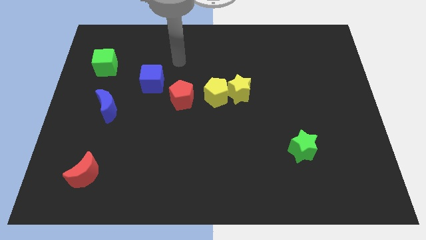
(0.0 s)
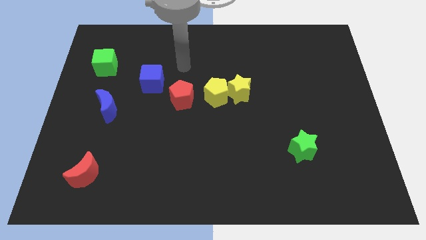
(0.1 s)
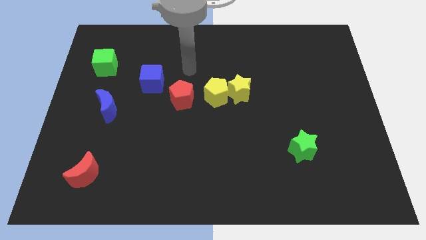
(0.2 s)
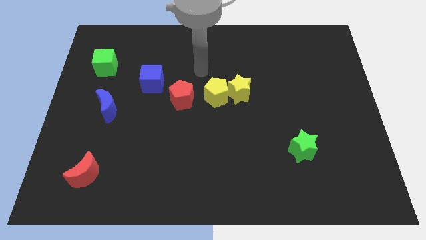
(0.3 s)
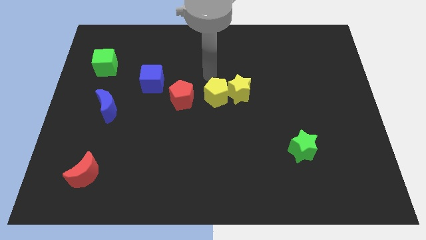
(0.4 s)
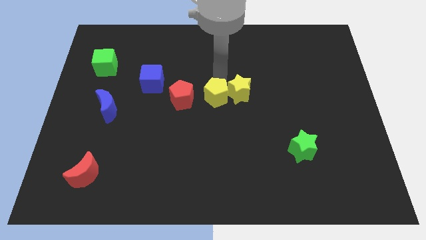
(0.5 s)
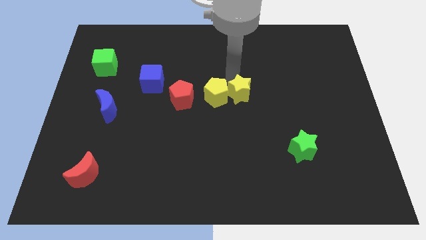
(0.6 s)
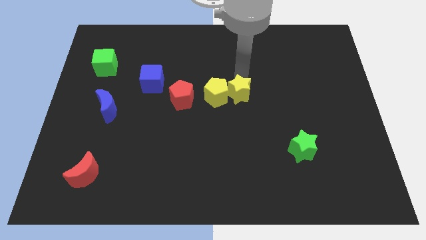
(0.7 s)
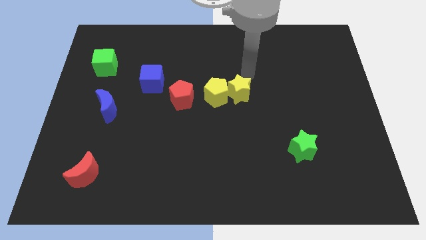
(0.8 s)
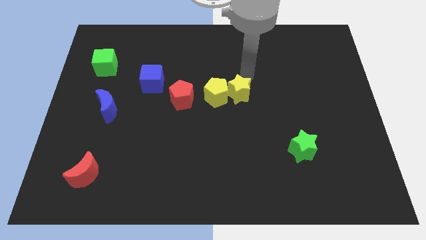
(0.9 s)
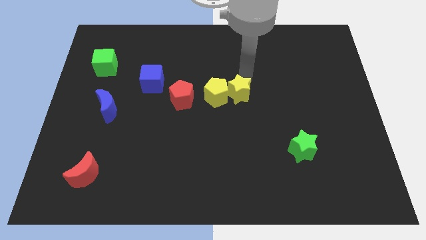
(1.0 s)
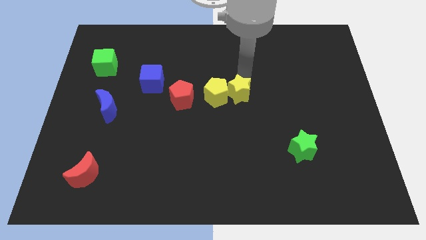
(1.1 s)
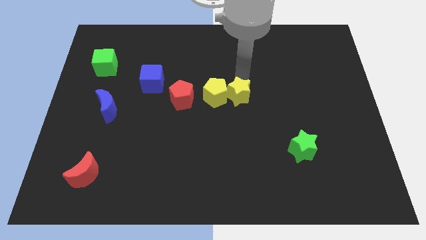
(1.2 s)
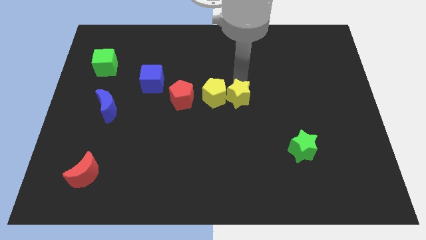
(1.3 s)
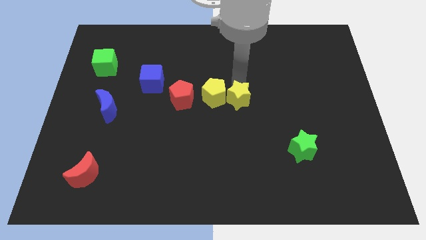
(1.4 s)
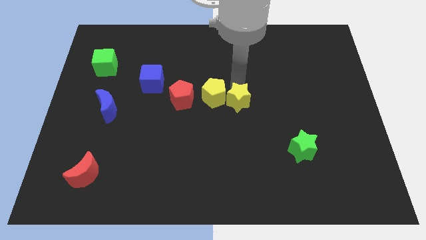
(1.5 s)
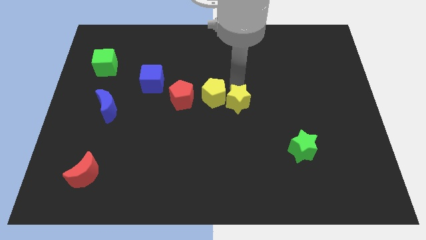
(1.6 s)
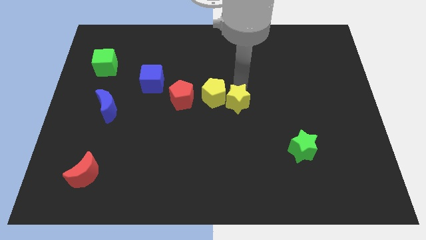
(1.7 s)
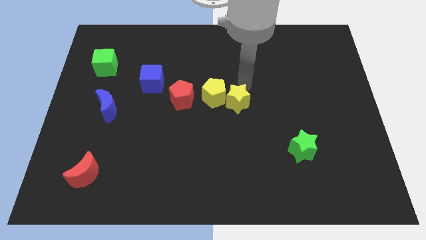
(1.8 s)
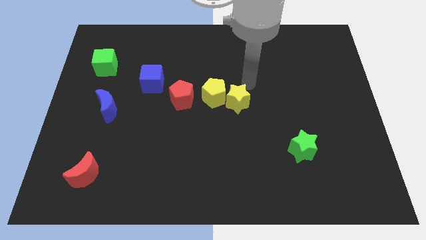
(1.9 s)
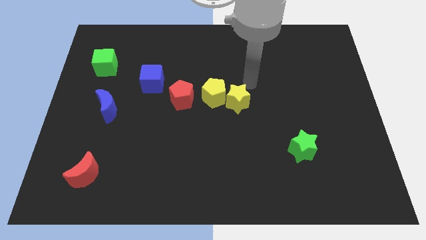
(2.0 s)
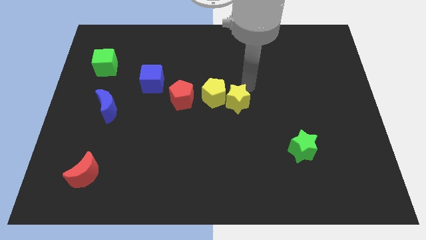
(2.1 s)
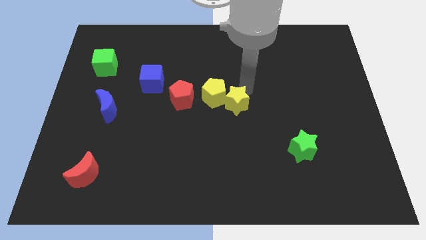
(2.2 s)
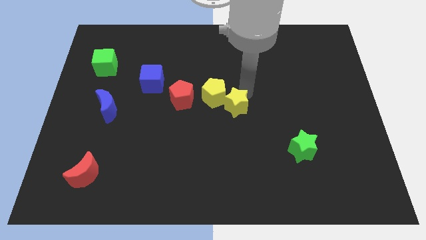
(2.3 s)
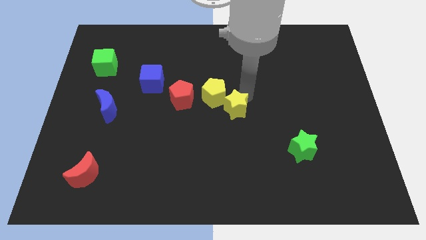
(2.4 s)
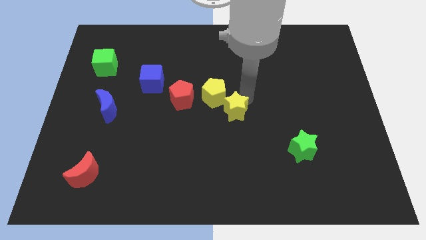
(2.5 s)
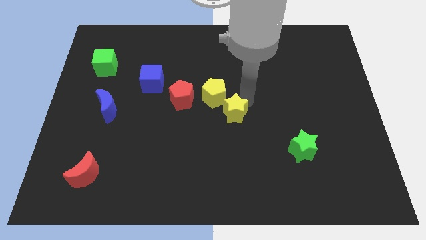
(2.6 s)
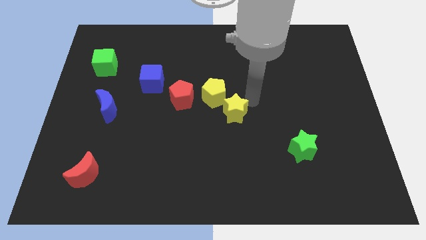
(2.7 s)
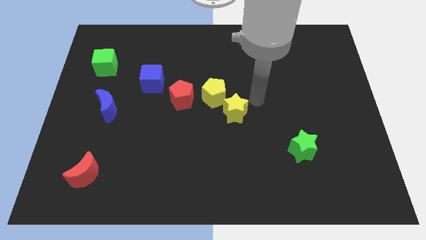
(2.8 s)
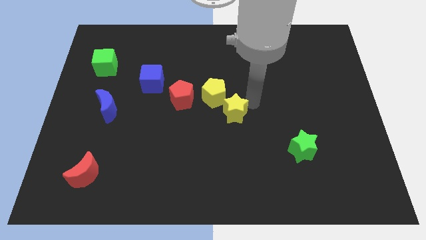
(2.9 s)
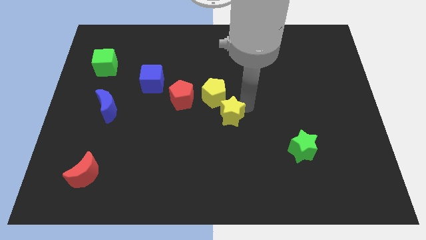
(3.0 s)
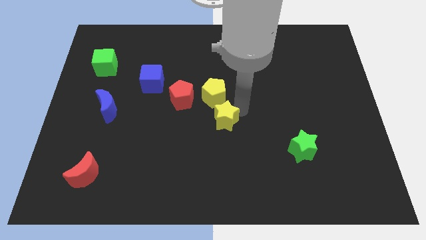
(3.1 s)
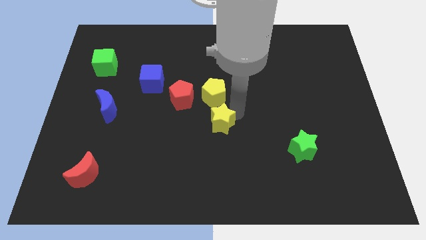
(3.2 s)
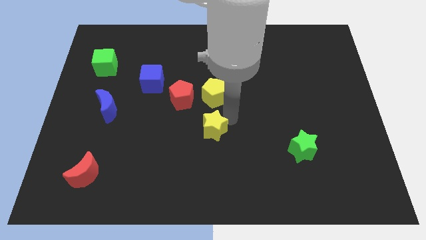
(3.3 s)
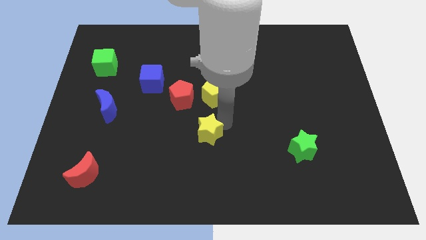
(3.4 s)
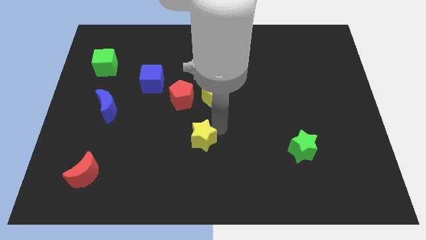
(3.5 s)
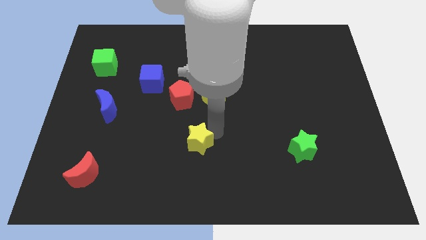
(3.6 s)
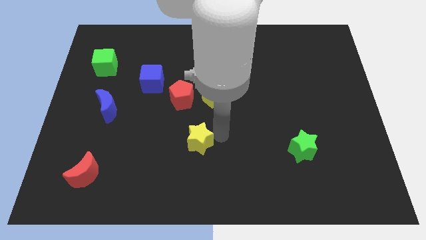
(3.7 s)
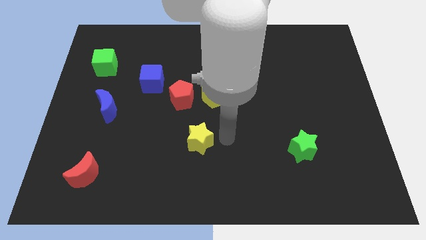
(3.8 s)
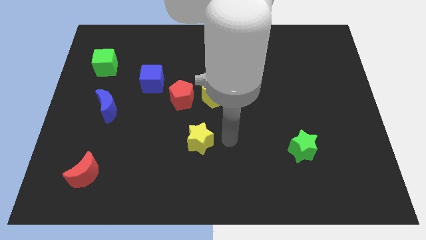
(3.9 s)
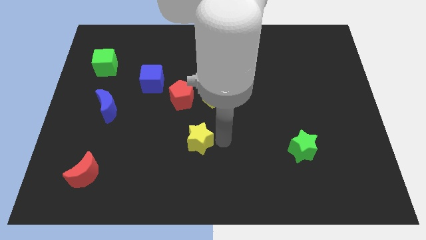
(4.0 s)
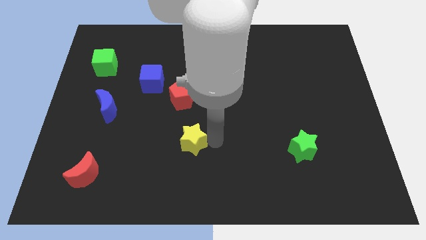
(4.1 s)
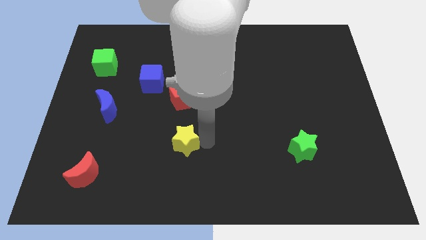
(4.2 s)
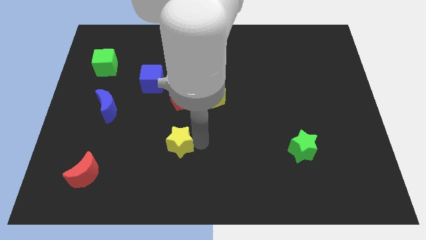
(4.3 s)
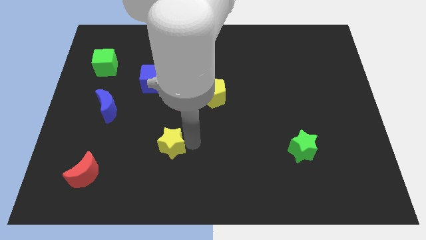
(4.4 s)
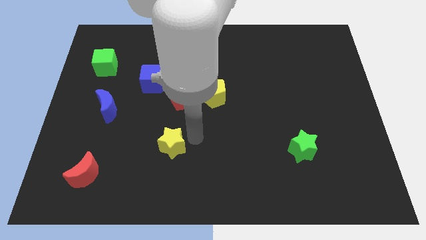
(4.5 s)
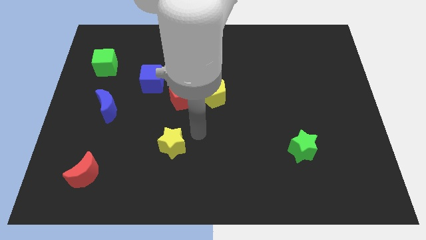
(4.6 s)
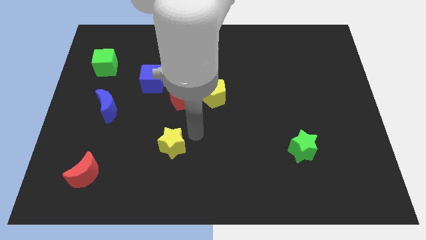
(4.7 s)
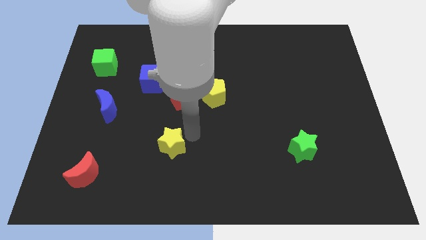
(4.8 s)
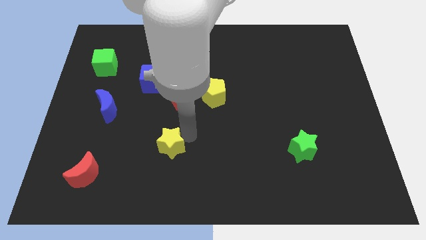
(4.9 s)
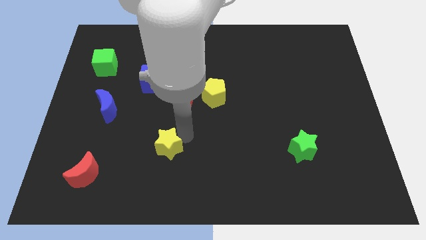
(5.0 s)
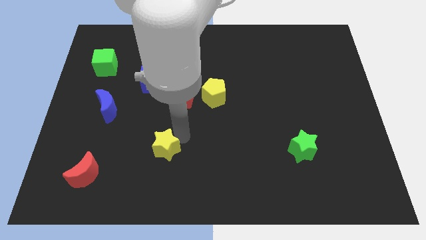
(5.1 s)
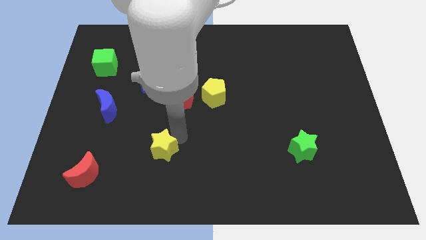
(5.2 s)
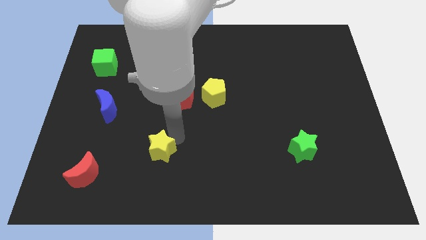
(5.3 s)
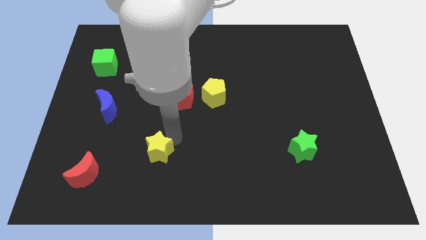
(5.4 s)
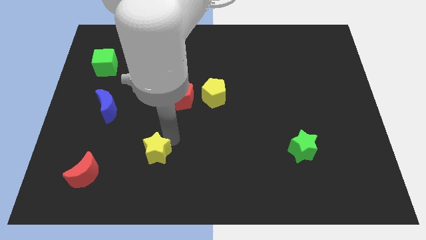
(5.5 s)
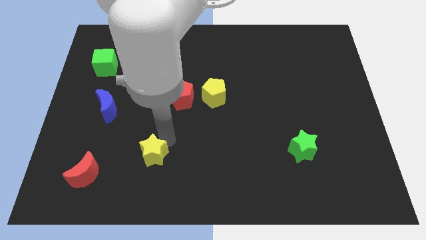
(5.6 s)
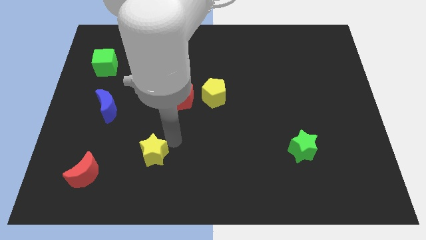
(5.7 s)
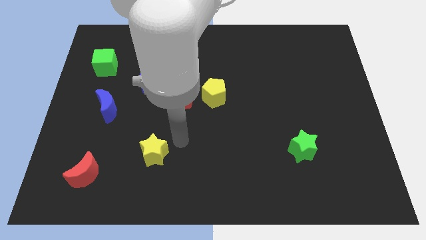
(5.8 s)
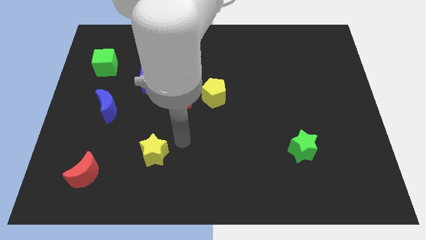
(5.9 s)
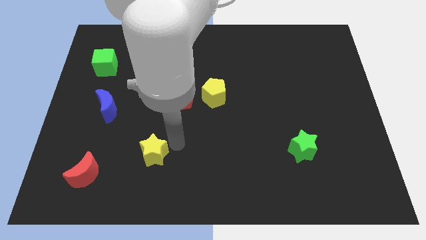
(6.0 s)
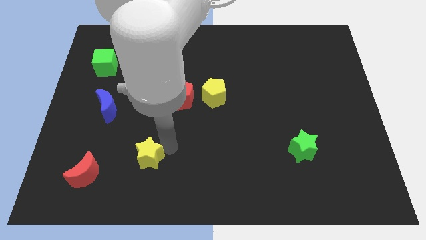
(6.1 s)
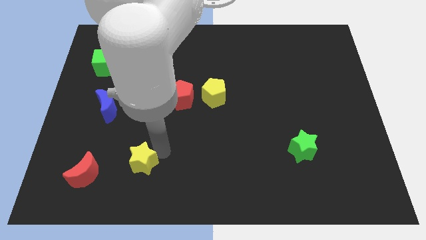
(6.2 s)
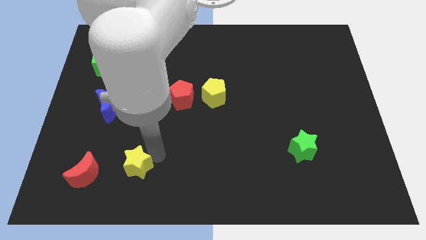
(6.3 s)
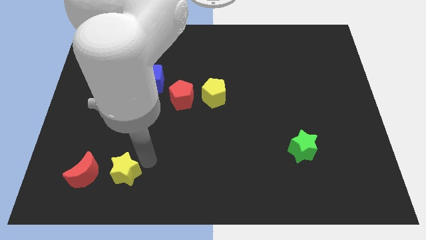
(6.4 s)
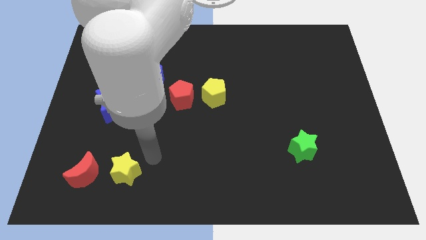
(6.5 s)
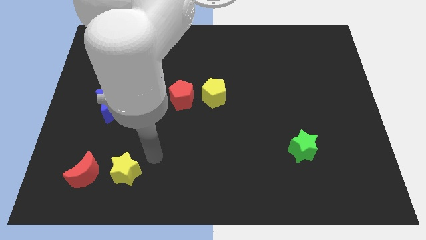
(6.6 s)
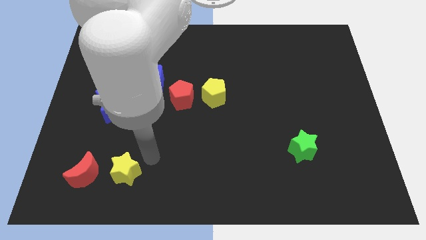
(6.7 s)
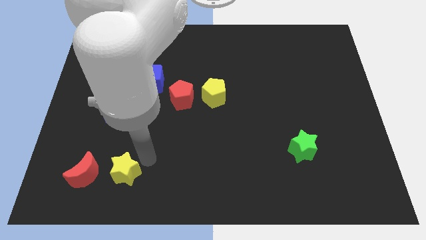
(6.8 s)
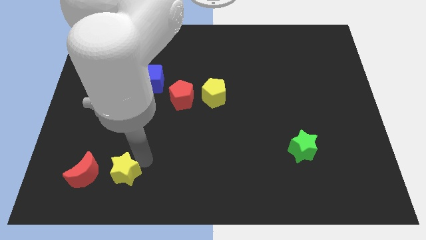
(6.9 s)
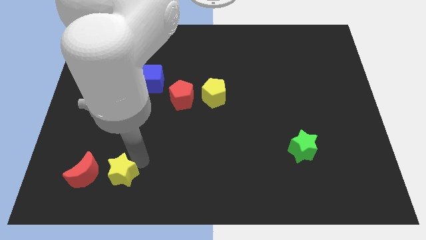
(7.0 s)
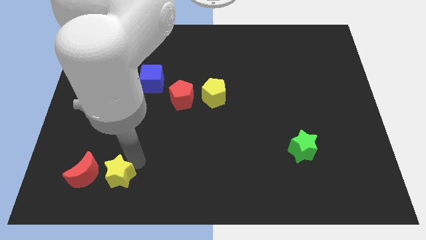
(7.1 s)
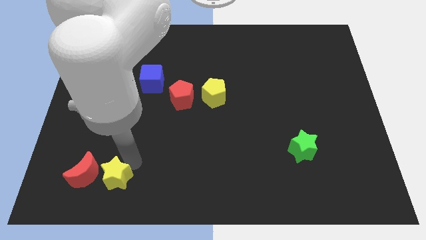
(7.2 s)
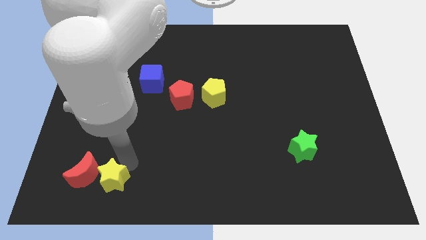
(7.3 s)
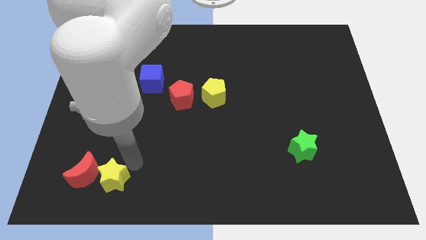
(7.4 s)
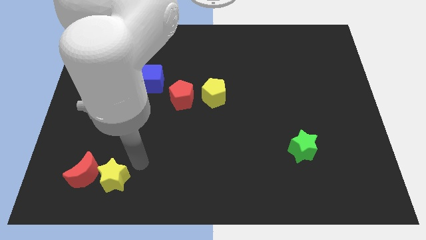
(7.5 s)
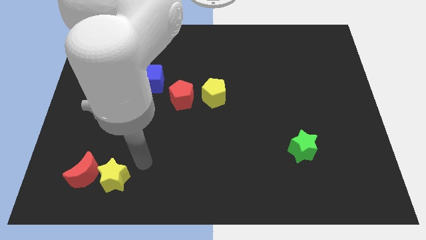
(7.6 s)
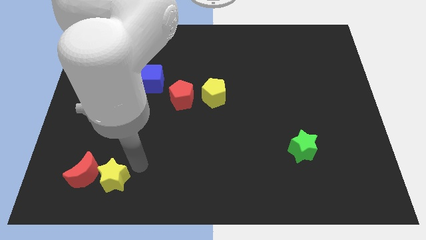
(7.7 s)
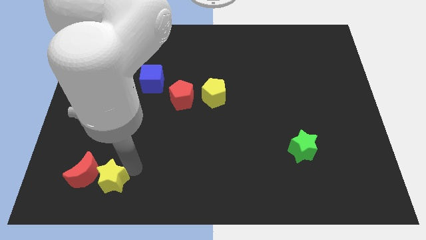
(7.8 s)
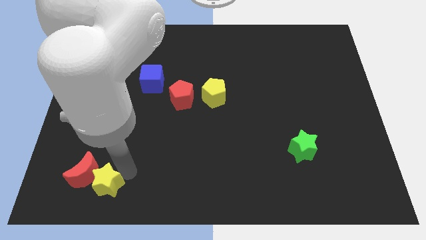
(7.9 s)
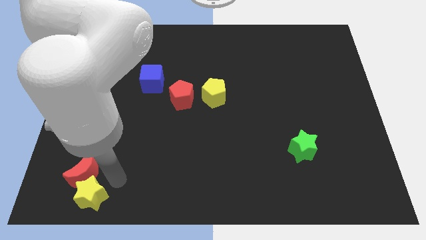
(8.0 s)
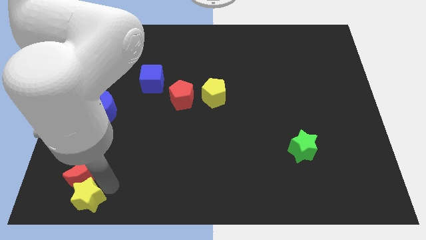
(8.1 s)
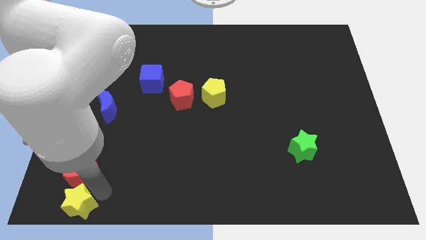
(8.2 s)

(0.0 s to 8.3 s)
move the yellow star to the bottom left
